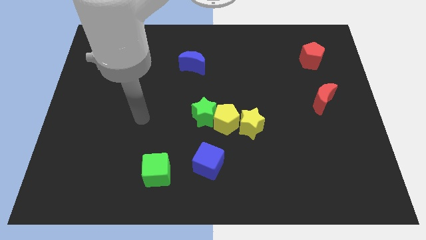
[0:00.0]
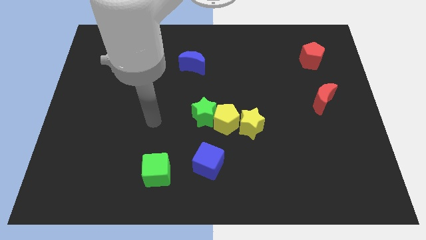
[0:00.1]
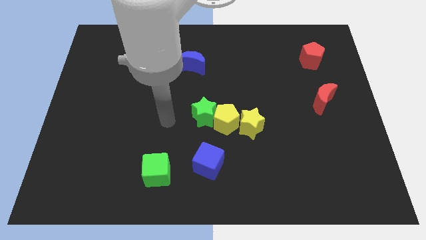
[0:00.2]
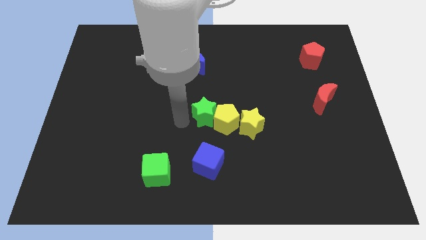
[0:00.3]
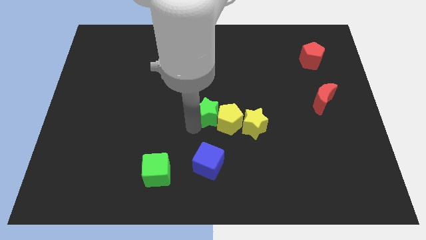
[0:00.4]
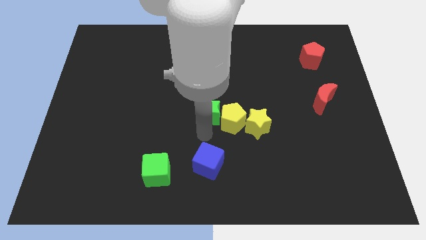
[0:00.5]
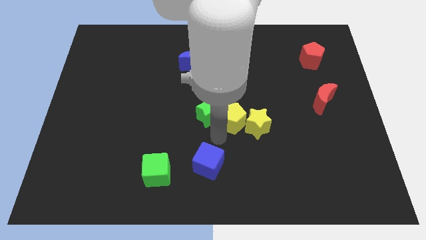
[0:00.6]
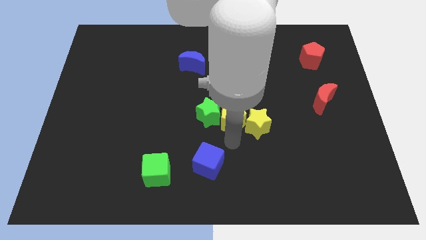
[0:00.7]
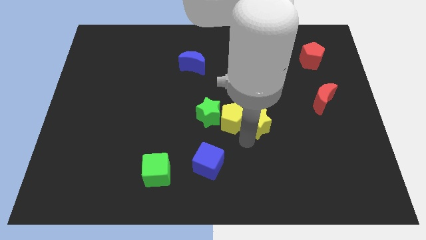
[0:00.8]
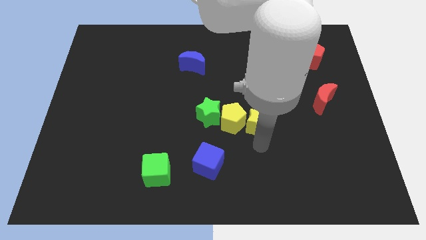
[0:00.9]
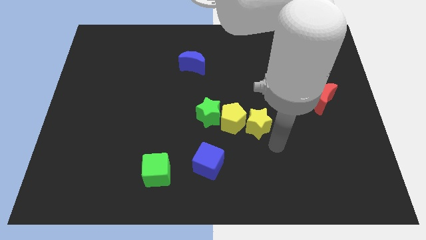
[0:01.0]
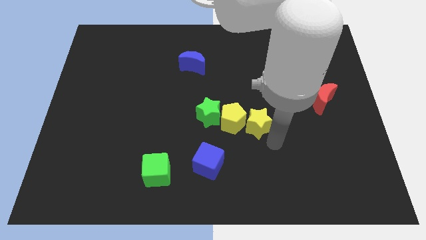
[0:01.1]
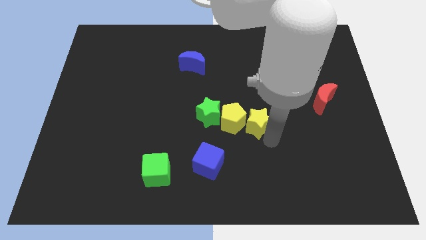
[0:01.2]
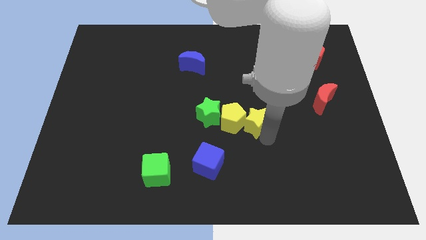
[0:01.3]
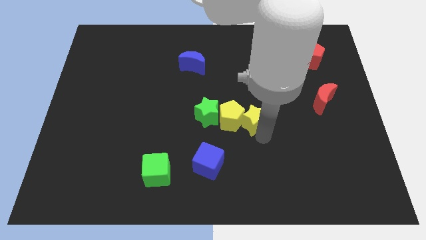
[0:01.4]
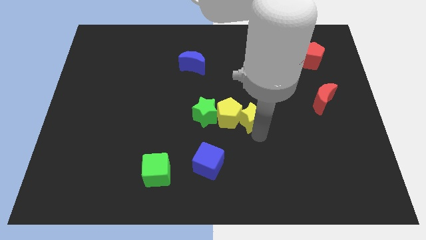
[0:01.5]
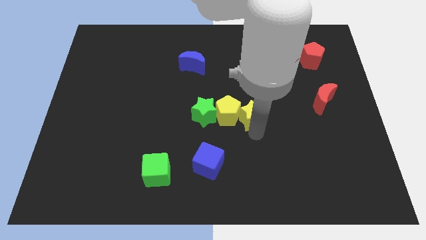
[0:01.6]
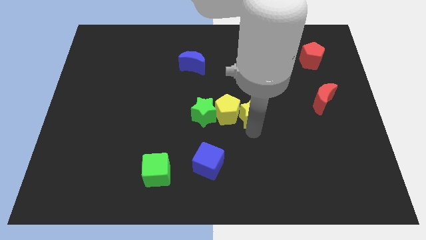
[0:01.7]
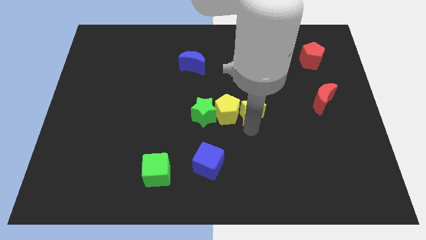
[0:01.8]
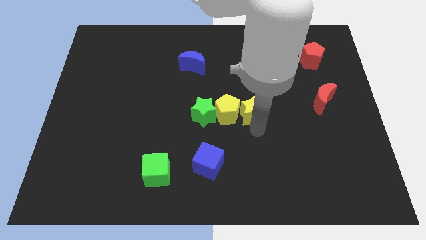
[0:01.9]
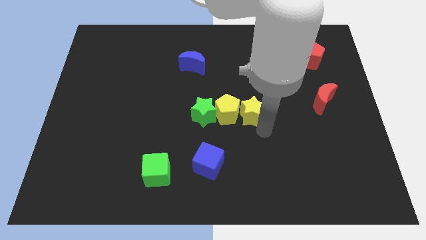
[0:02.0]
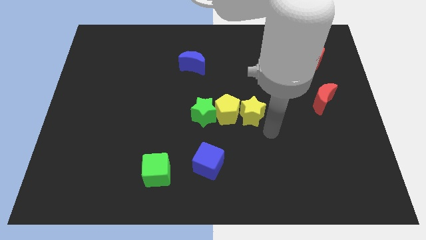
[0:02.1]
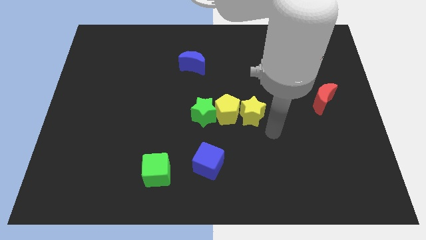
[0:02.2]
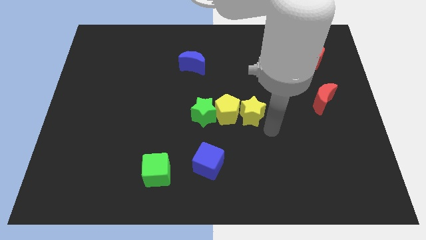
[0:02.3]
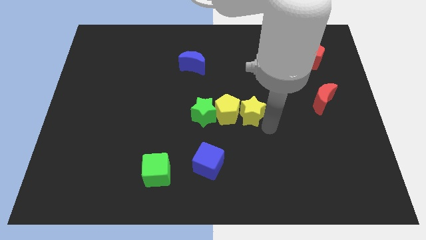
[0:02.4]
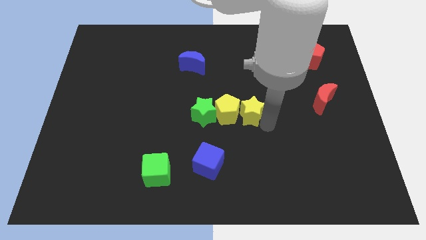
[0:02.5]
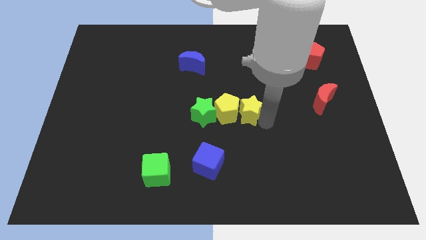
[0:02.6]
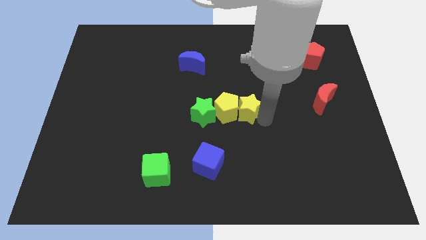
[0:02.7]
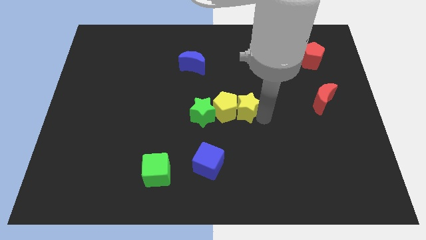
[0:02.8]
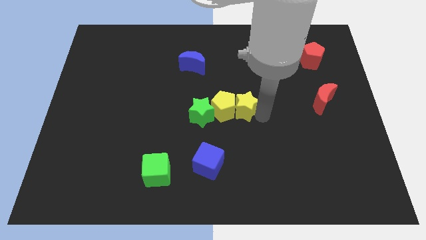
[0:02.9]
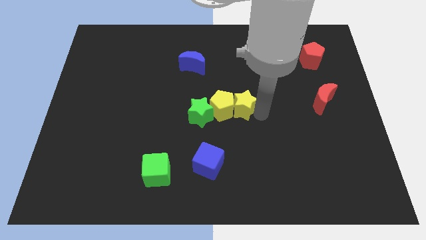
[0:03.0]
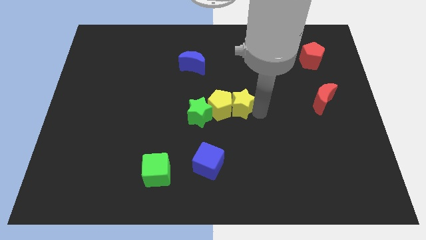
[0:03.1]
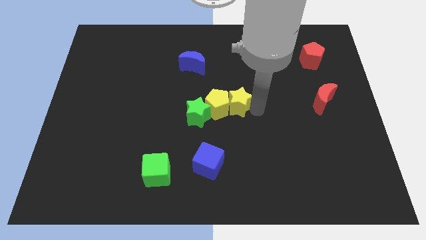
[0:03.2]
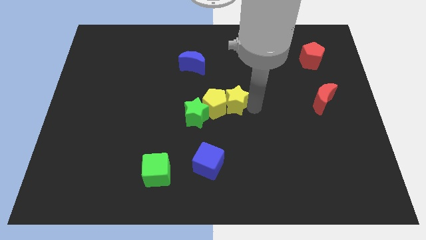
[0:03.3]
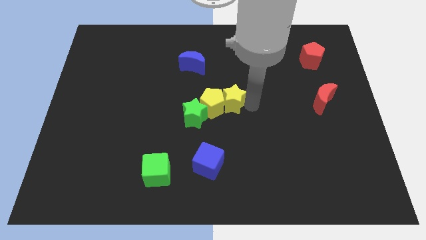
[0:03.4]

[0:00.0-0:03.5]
move the yellow star a little bit up and left

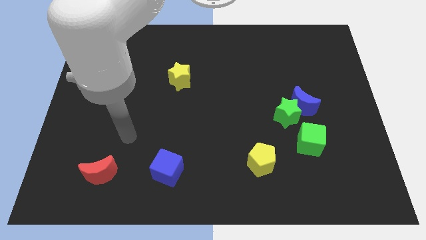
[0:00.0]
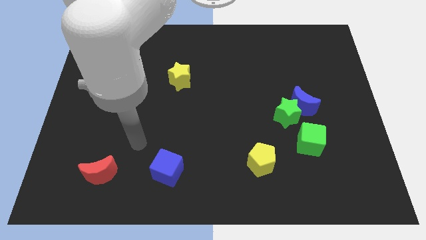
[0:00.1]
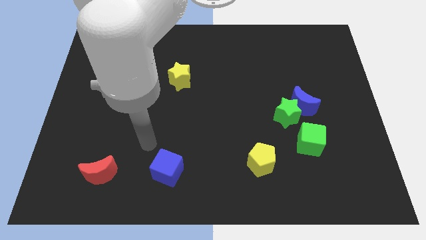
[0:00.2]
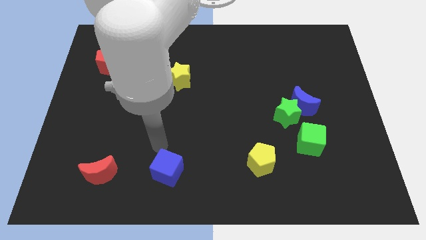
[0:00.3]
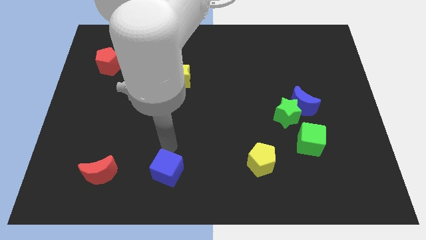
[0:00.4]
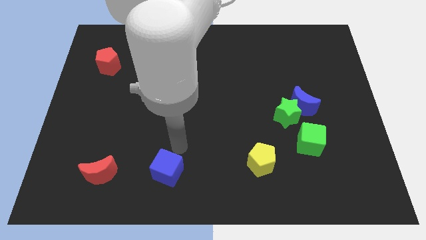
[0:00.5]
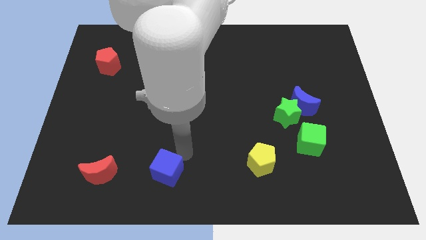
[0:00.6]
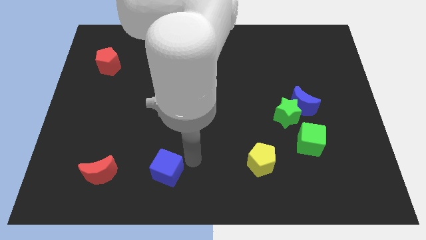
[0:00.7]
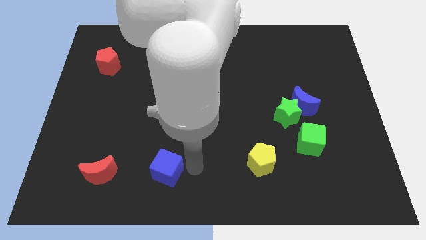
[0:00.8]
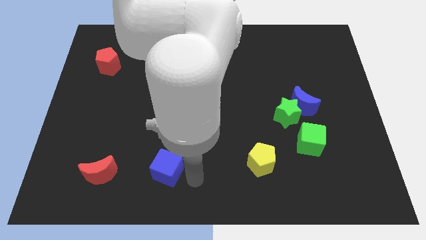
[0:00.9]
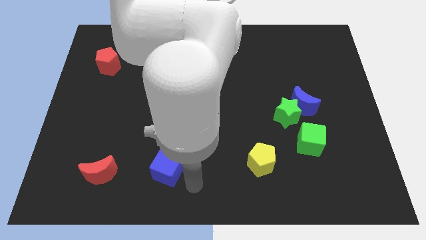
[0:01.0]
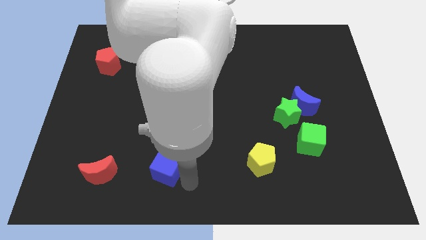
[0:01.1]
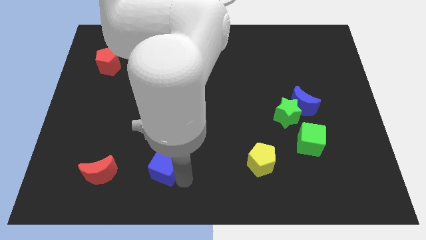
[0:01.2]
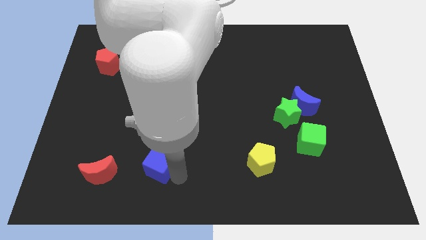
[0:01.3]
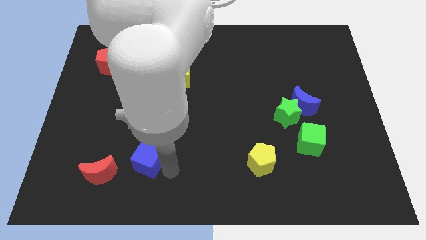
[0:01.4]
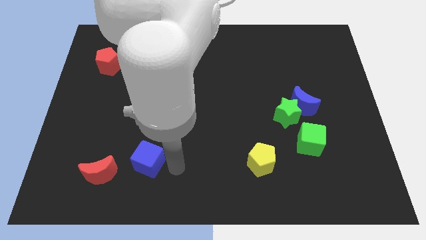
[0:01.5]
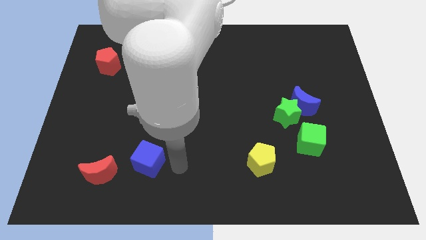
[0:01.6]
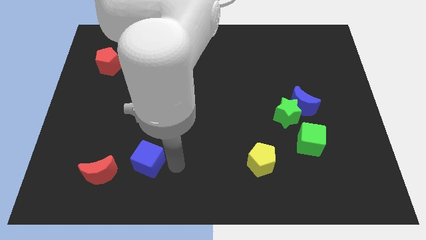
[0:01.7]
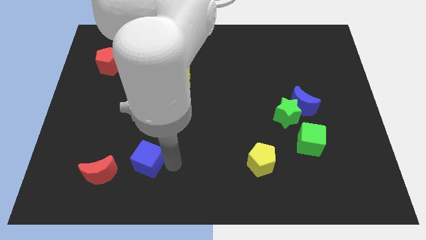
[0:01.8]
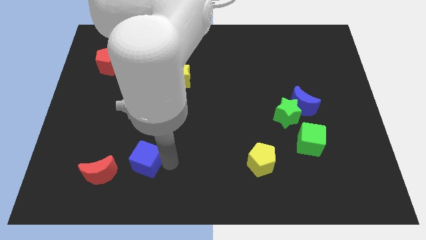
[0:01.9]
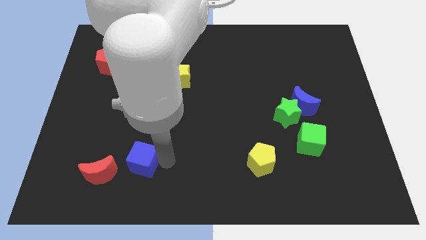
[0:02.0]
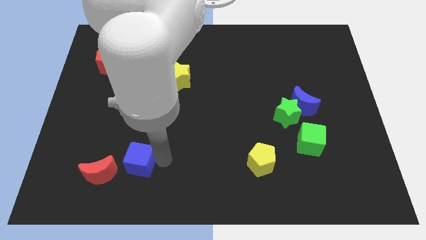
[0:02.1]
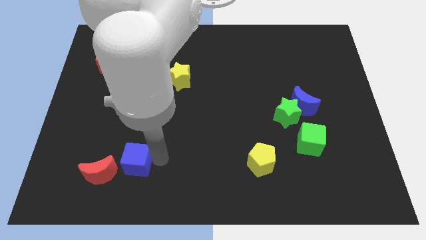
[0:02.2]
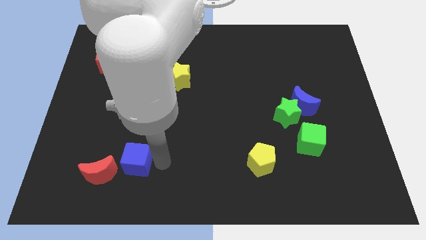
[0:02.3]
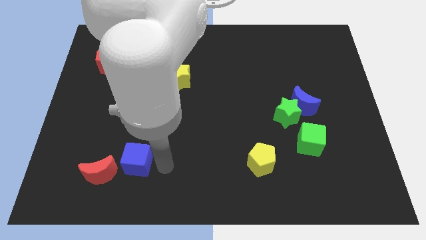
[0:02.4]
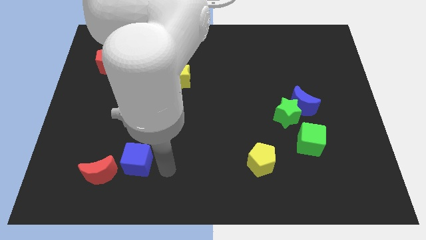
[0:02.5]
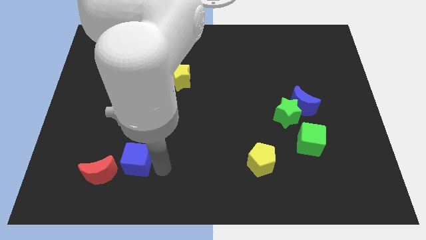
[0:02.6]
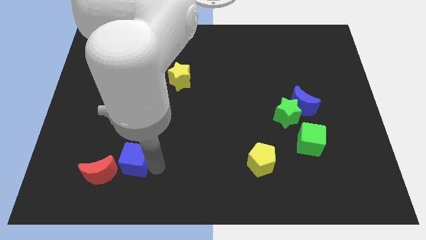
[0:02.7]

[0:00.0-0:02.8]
slide the blue cube a bit left

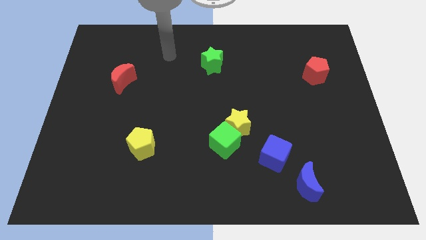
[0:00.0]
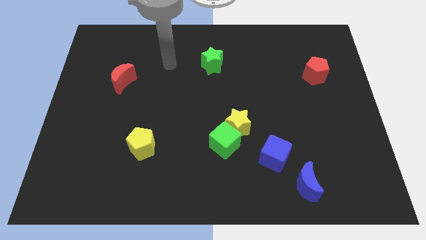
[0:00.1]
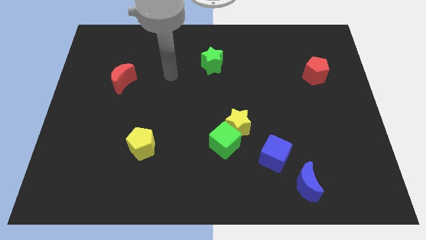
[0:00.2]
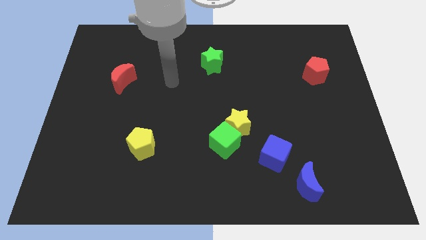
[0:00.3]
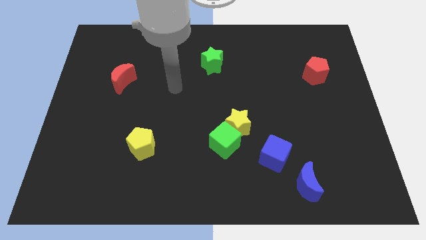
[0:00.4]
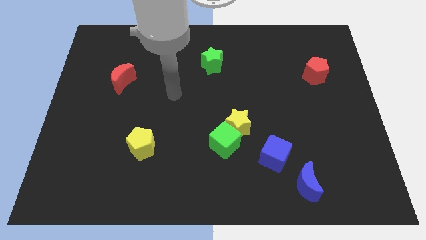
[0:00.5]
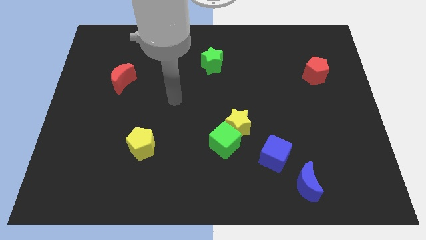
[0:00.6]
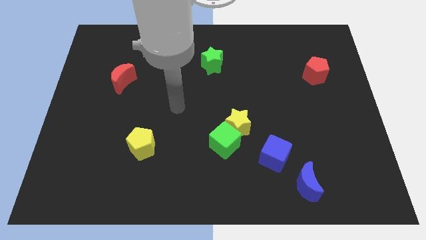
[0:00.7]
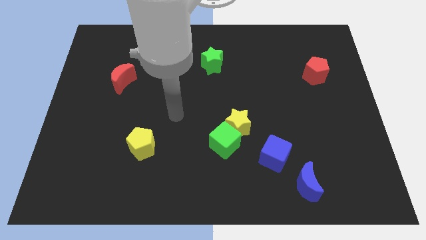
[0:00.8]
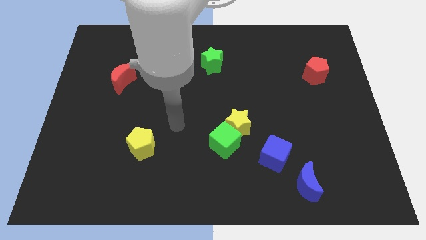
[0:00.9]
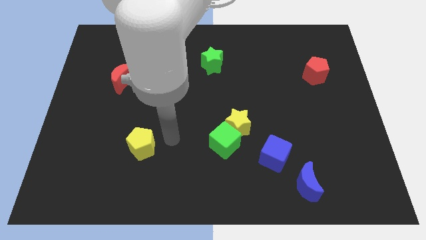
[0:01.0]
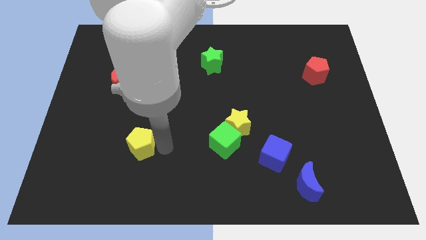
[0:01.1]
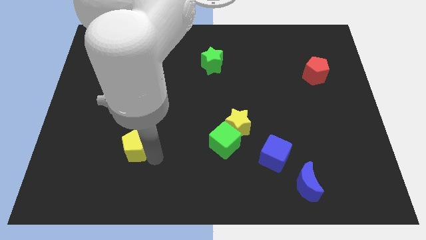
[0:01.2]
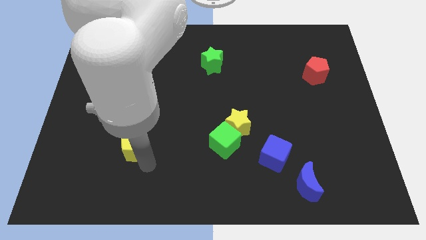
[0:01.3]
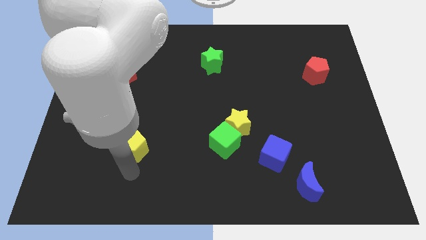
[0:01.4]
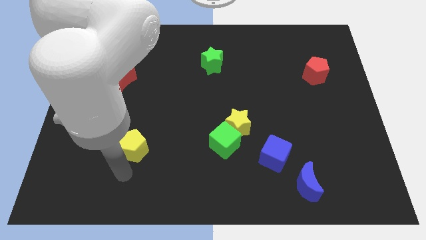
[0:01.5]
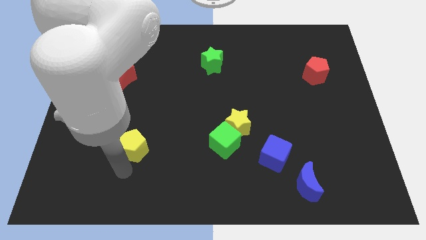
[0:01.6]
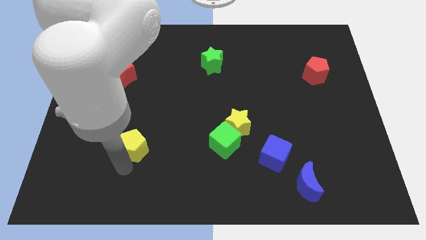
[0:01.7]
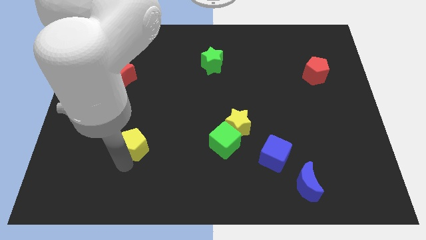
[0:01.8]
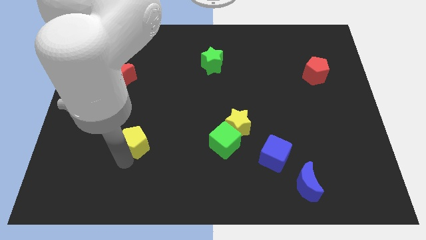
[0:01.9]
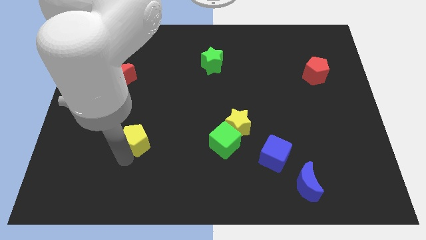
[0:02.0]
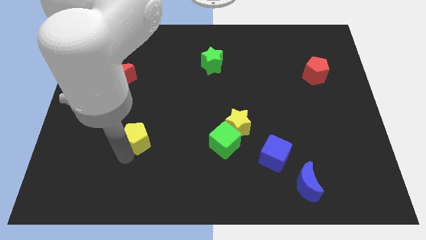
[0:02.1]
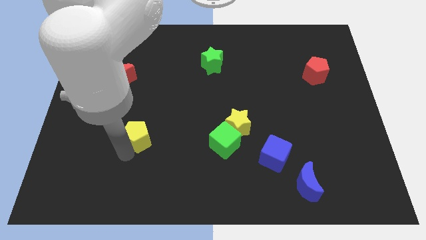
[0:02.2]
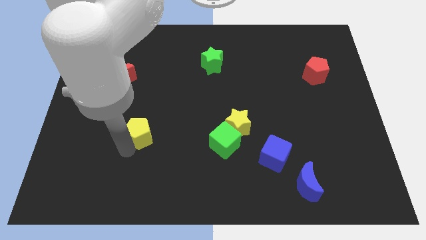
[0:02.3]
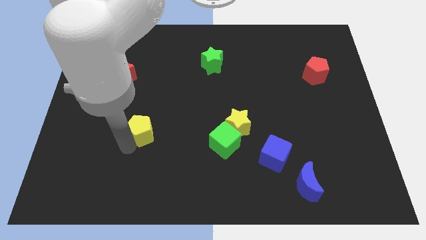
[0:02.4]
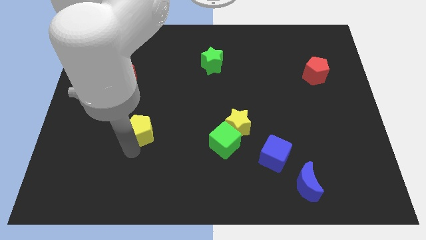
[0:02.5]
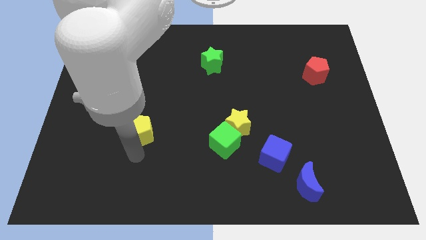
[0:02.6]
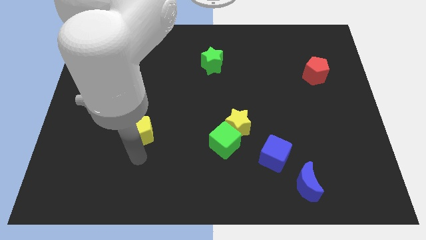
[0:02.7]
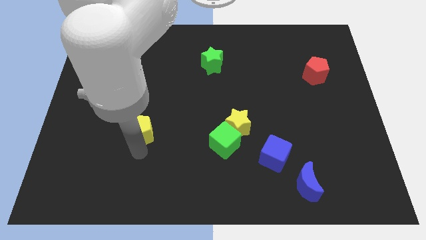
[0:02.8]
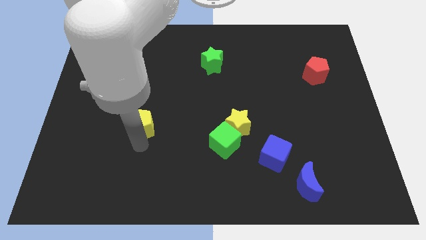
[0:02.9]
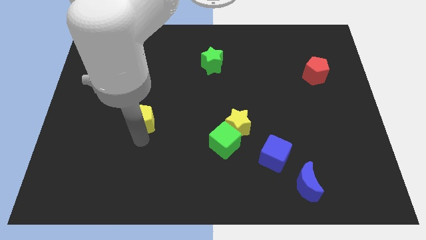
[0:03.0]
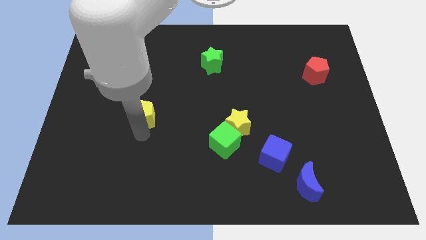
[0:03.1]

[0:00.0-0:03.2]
slightly push the yellow pentagon upwards
